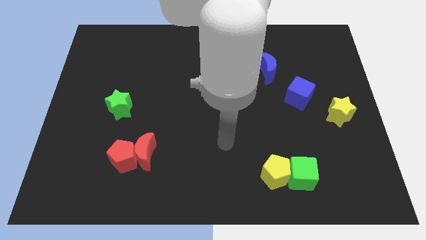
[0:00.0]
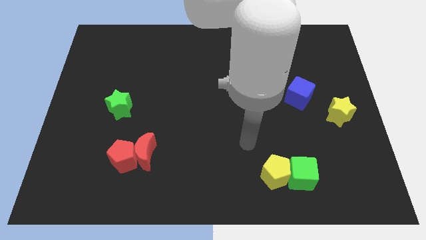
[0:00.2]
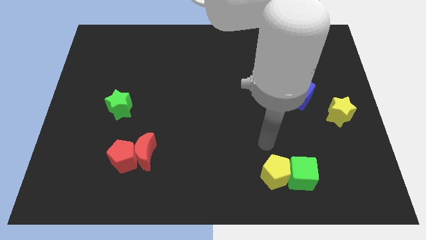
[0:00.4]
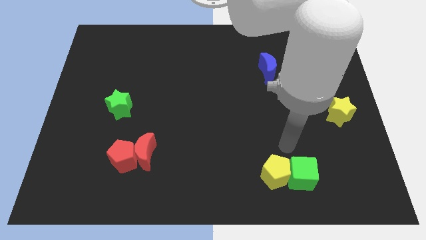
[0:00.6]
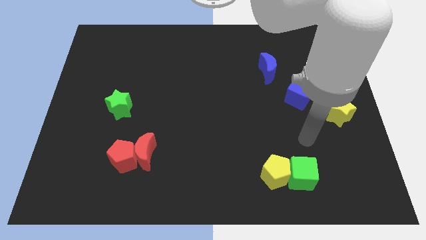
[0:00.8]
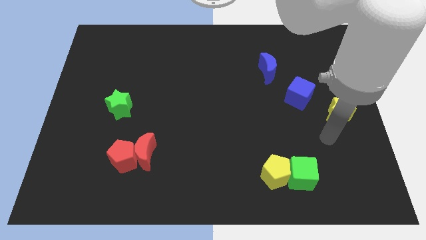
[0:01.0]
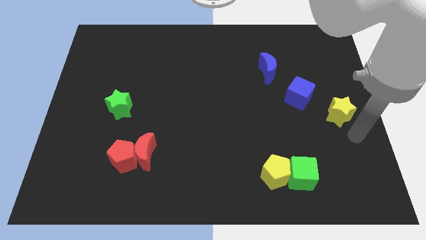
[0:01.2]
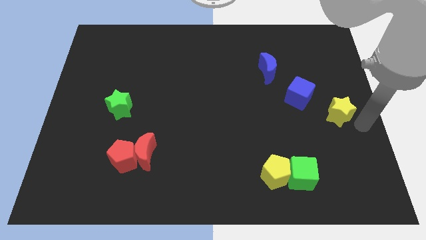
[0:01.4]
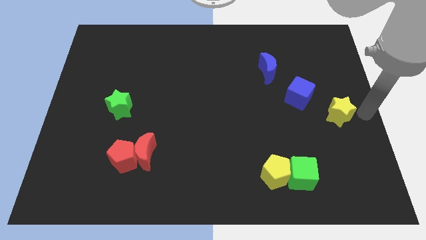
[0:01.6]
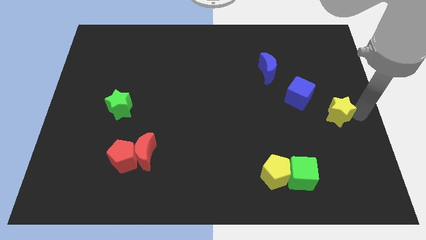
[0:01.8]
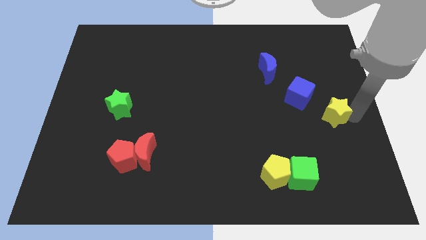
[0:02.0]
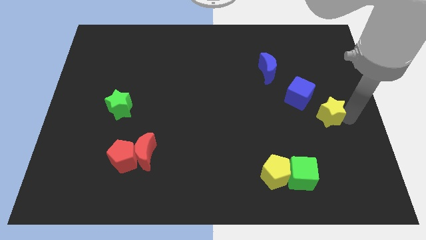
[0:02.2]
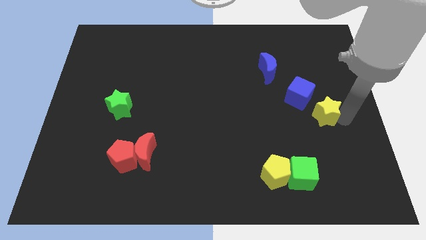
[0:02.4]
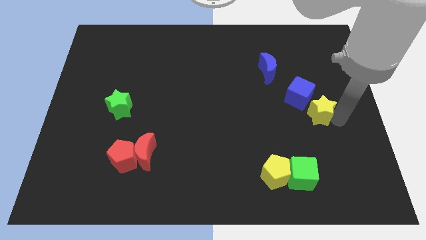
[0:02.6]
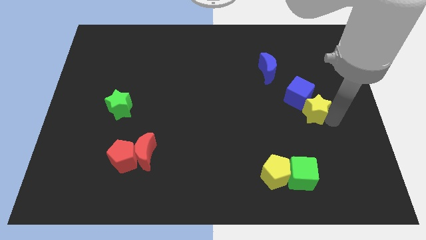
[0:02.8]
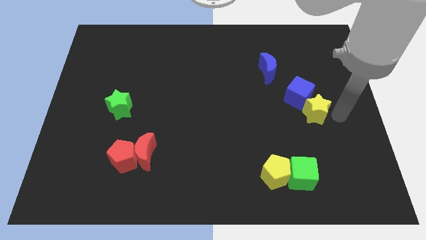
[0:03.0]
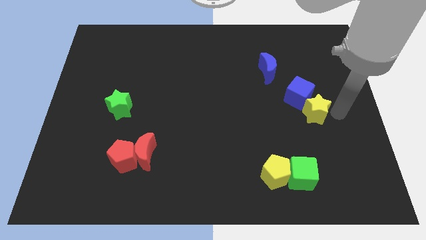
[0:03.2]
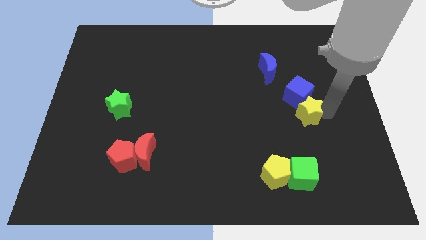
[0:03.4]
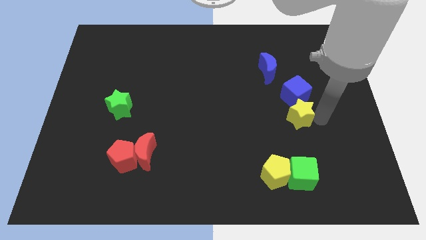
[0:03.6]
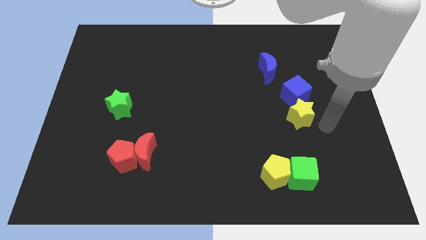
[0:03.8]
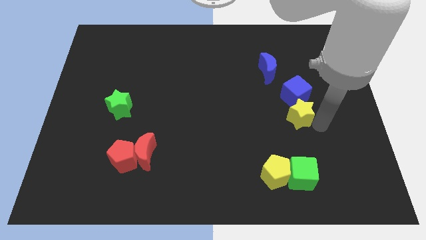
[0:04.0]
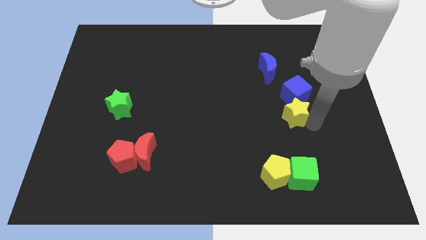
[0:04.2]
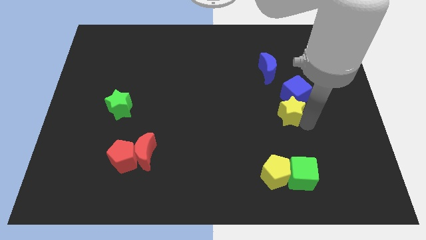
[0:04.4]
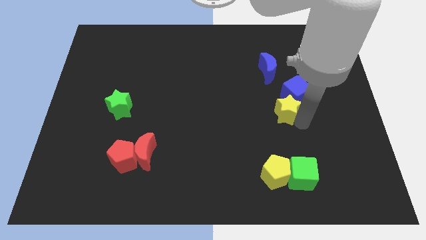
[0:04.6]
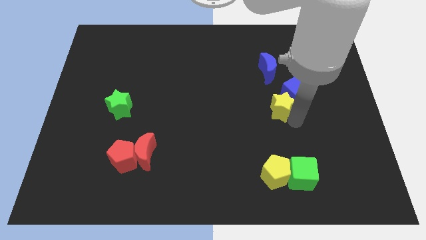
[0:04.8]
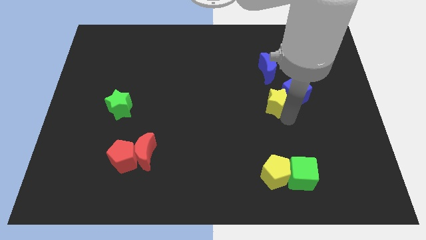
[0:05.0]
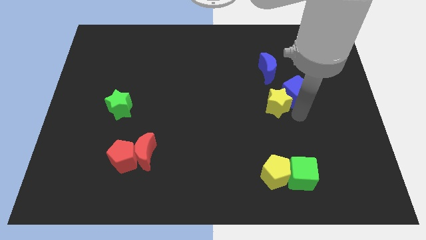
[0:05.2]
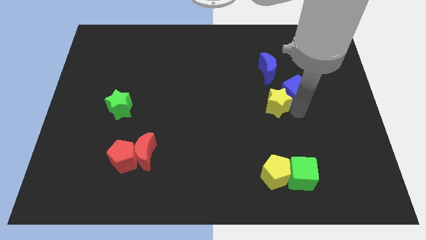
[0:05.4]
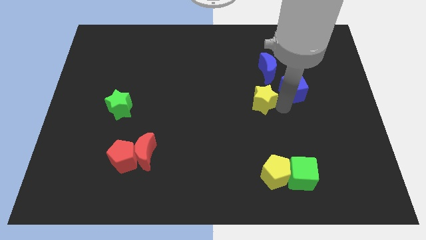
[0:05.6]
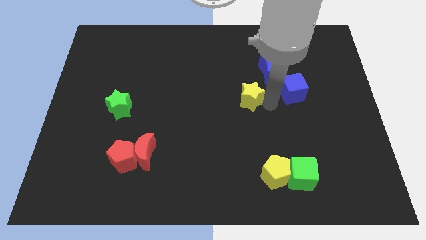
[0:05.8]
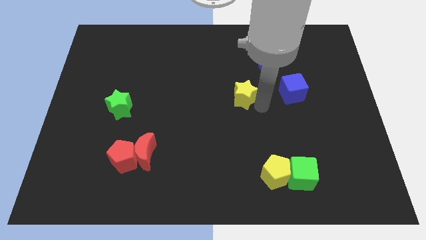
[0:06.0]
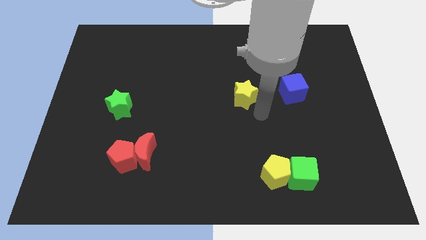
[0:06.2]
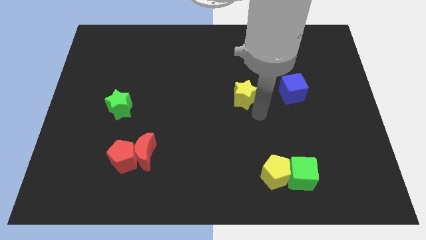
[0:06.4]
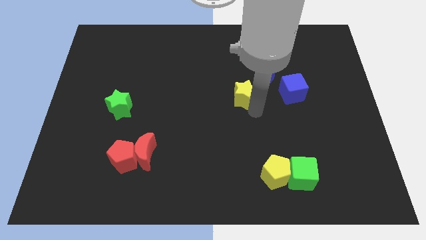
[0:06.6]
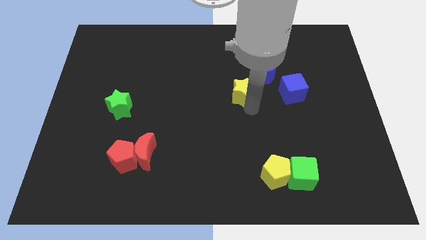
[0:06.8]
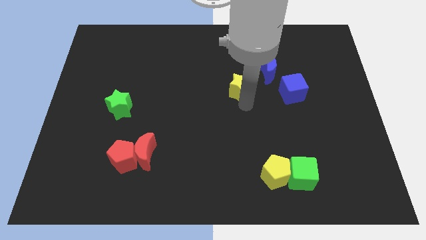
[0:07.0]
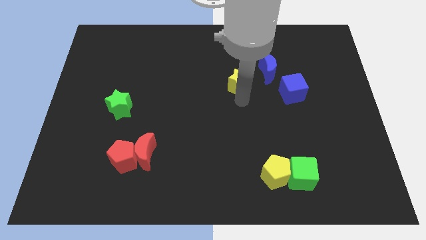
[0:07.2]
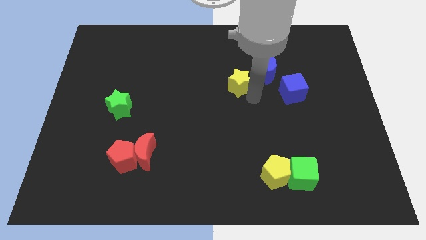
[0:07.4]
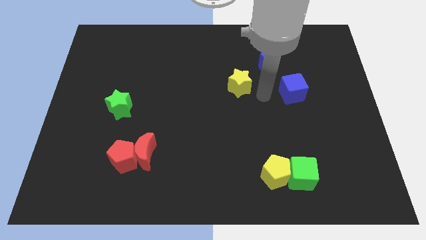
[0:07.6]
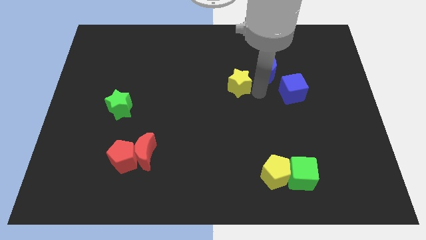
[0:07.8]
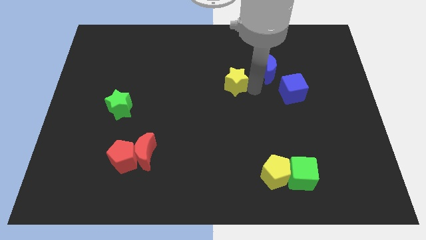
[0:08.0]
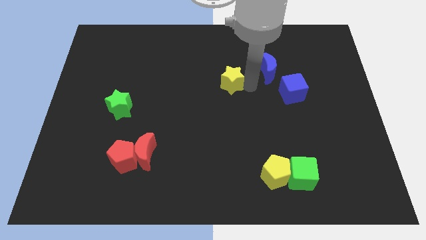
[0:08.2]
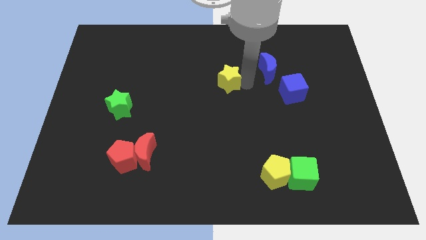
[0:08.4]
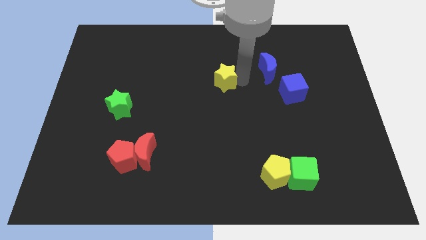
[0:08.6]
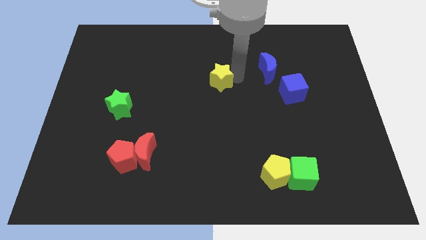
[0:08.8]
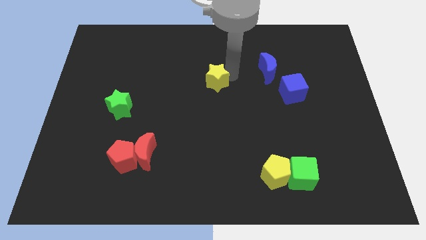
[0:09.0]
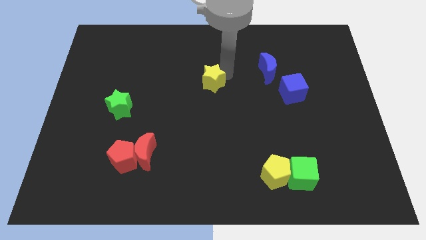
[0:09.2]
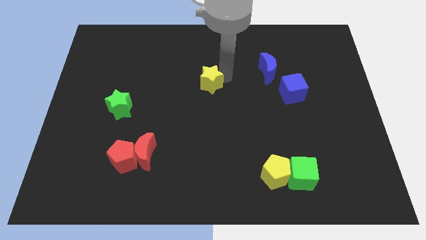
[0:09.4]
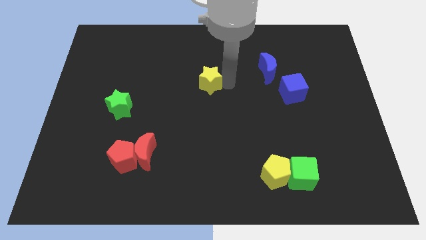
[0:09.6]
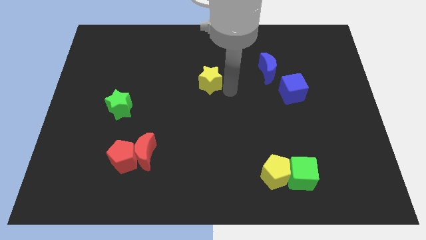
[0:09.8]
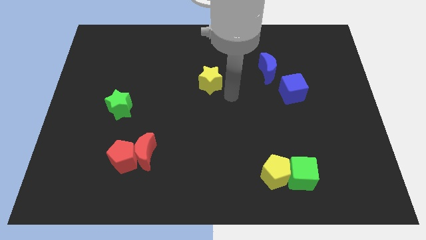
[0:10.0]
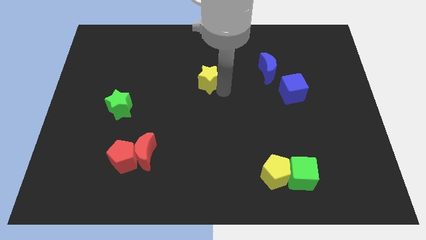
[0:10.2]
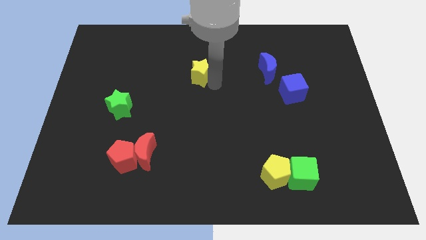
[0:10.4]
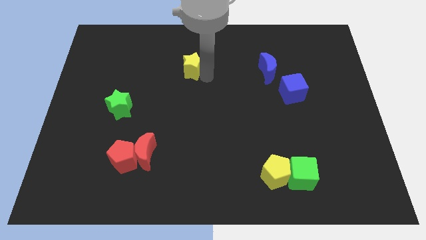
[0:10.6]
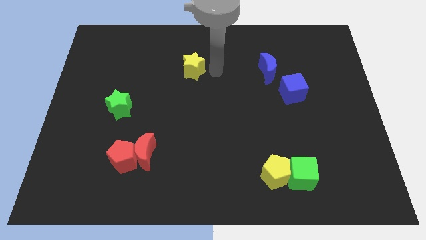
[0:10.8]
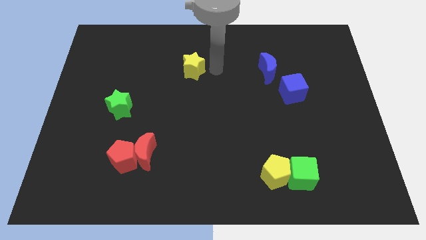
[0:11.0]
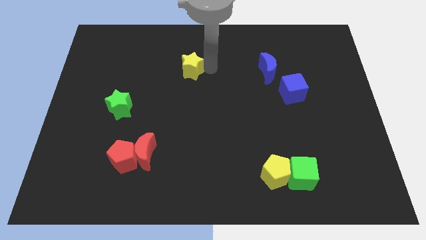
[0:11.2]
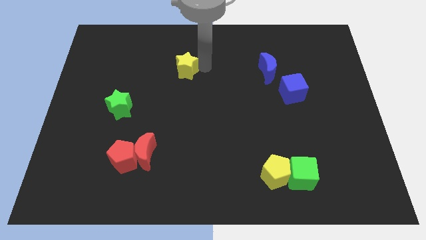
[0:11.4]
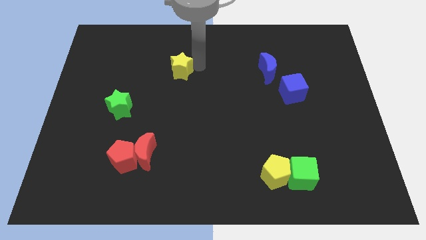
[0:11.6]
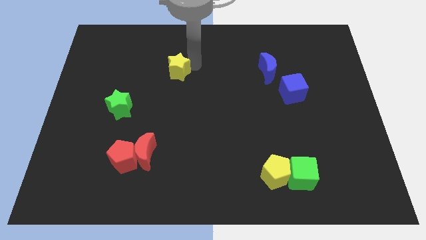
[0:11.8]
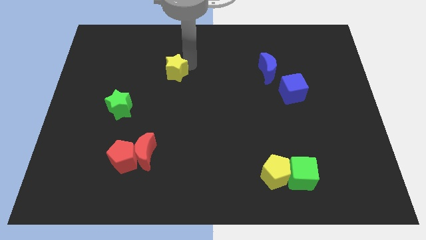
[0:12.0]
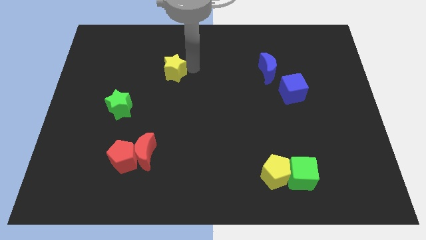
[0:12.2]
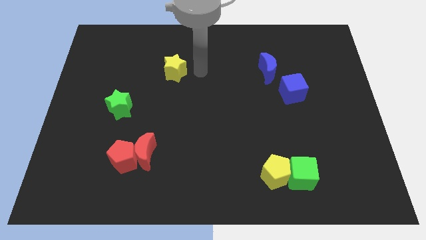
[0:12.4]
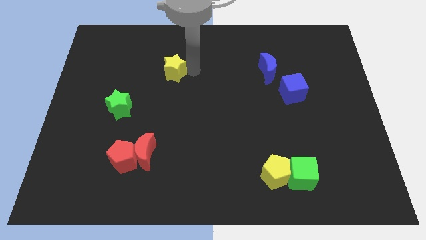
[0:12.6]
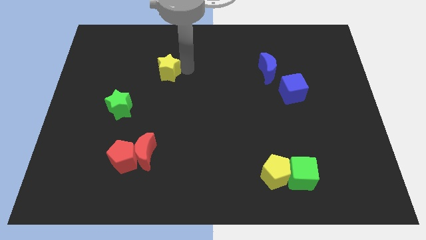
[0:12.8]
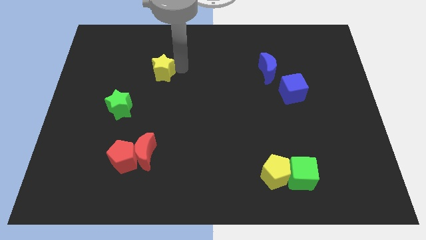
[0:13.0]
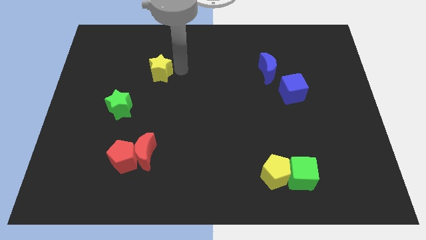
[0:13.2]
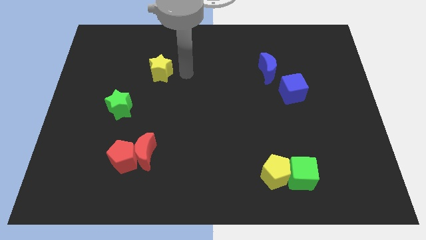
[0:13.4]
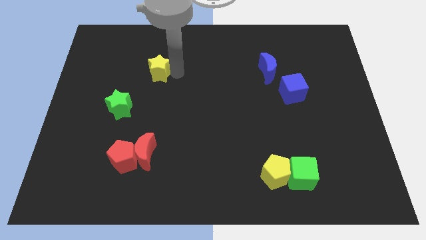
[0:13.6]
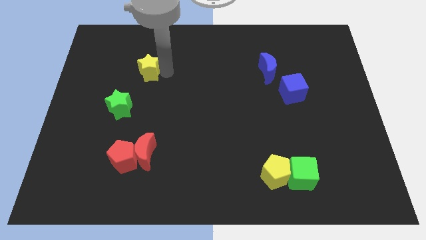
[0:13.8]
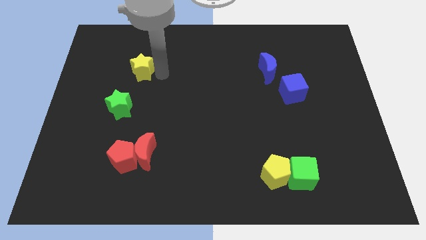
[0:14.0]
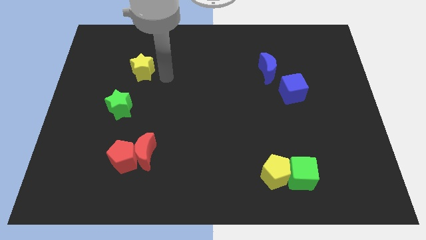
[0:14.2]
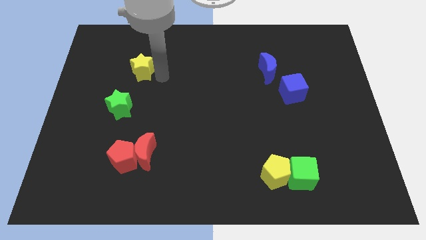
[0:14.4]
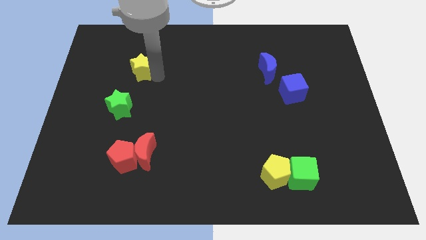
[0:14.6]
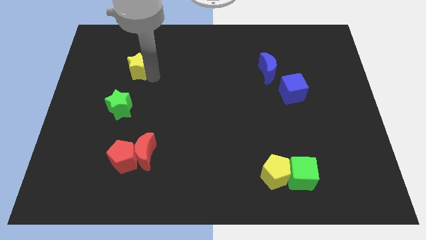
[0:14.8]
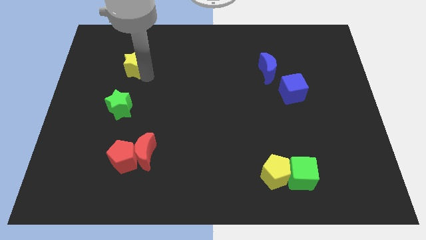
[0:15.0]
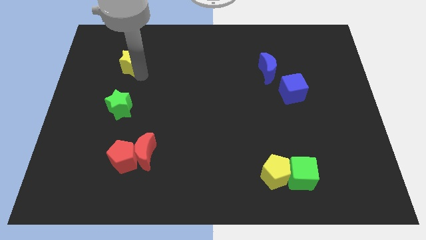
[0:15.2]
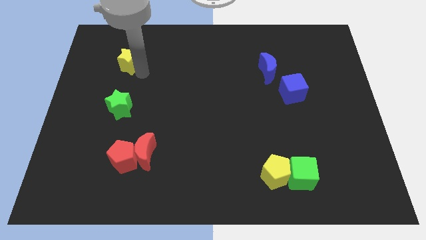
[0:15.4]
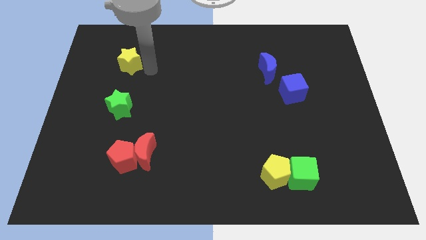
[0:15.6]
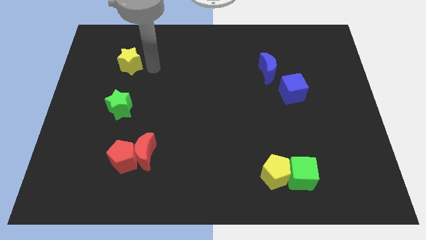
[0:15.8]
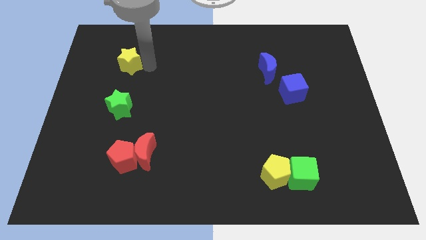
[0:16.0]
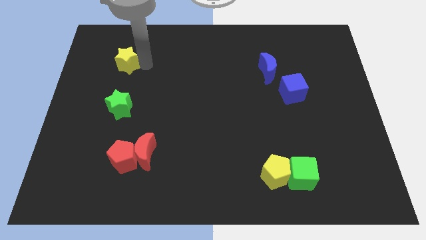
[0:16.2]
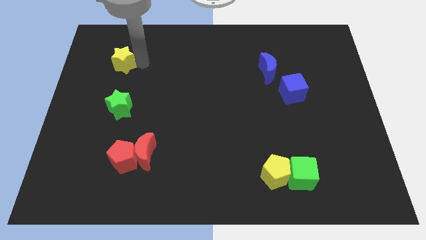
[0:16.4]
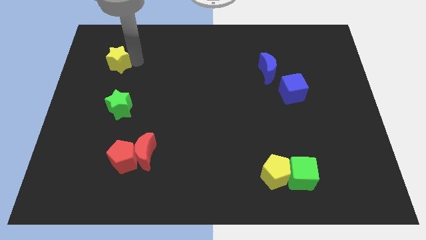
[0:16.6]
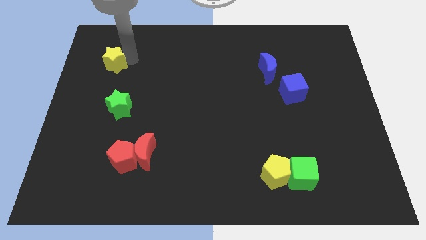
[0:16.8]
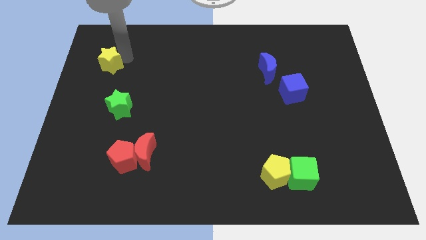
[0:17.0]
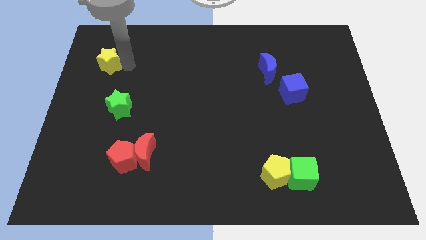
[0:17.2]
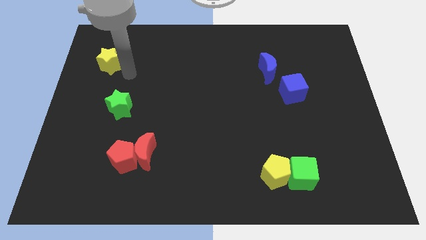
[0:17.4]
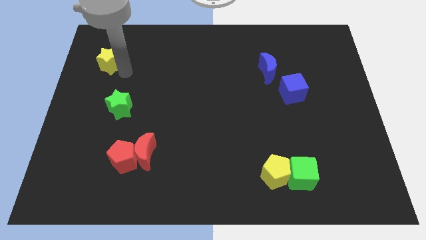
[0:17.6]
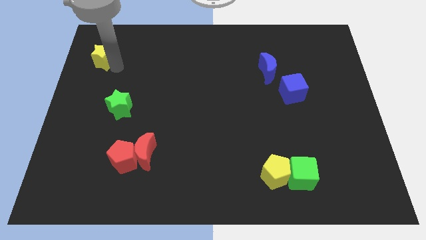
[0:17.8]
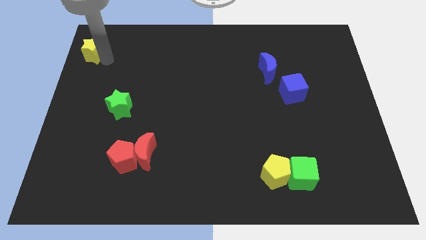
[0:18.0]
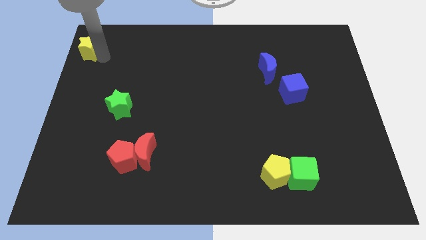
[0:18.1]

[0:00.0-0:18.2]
push the yellow star to the top left of the board
